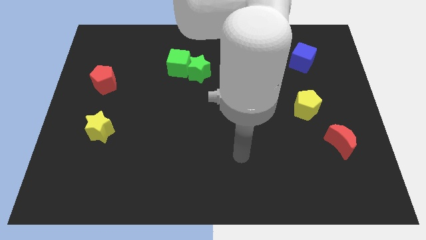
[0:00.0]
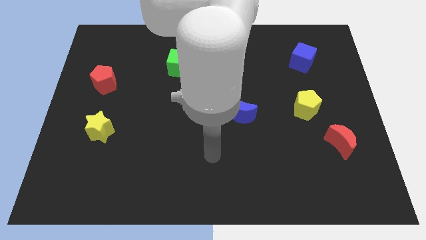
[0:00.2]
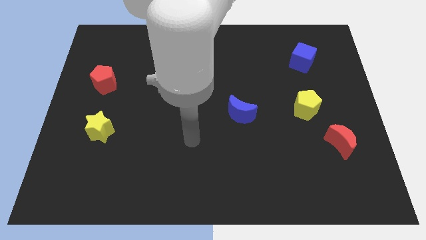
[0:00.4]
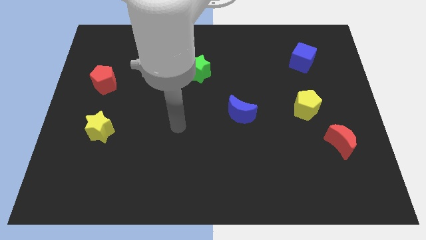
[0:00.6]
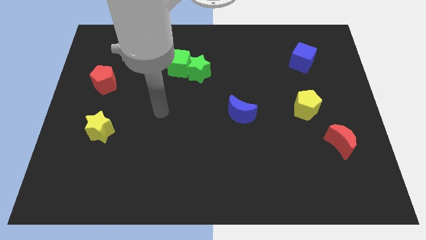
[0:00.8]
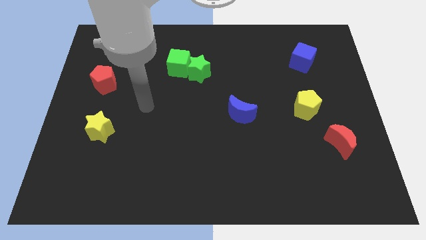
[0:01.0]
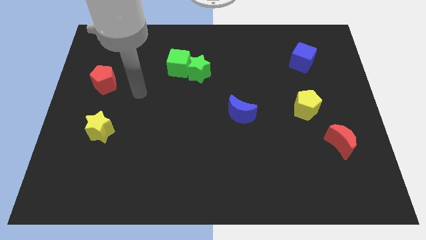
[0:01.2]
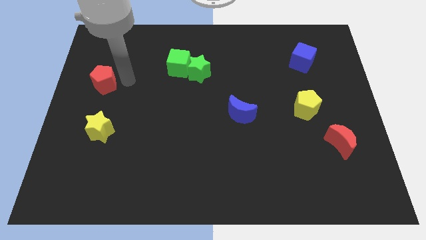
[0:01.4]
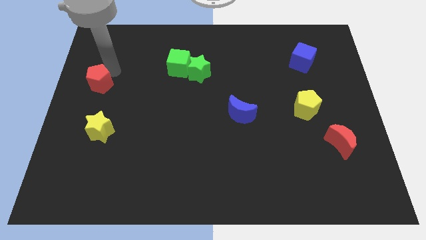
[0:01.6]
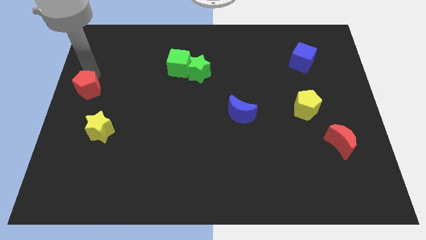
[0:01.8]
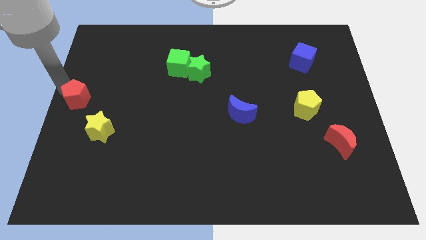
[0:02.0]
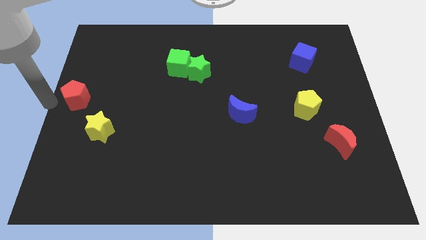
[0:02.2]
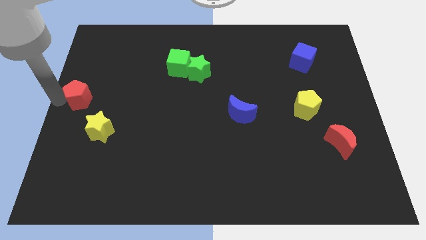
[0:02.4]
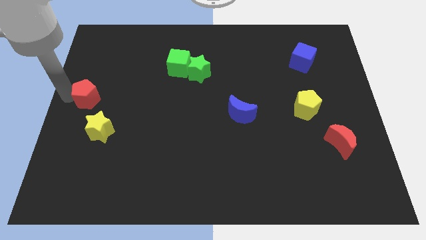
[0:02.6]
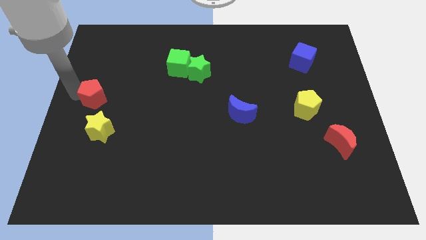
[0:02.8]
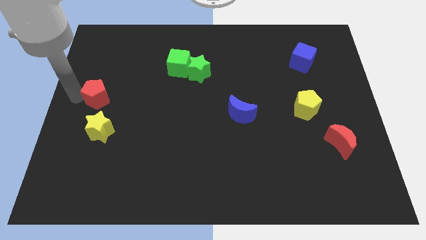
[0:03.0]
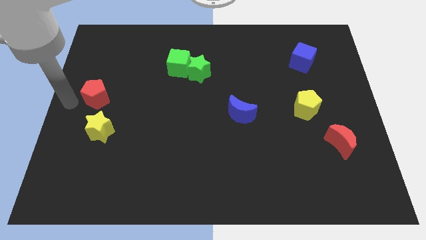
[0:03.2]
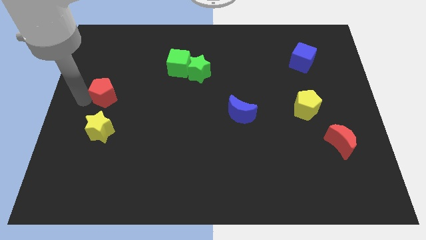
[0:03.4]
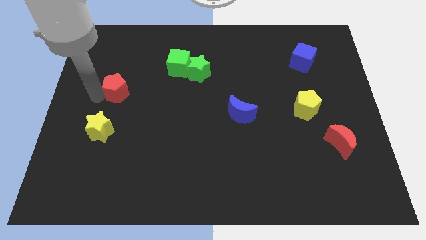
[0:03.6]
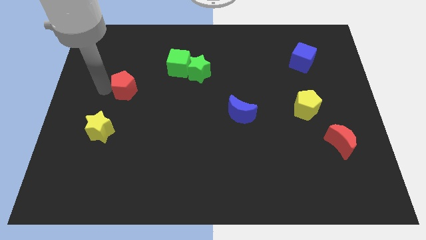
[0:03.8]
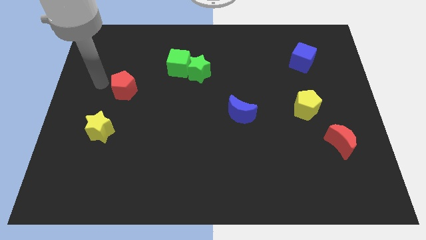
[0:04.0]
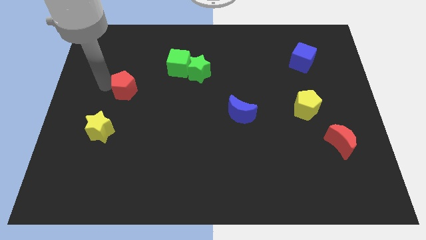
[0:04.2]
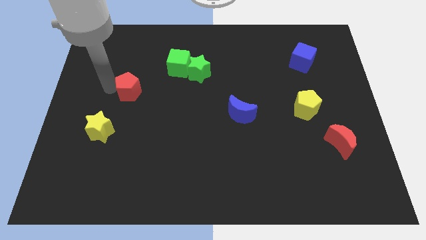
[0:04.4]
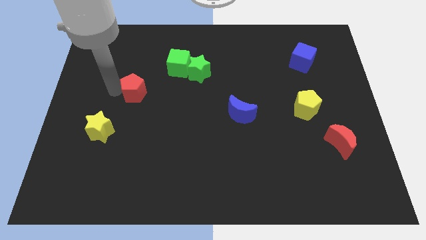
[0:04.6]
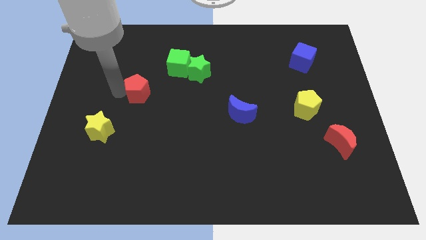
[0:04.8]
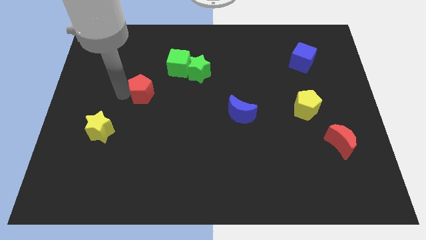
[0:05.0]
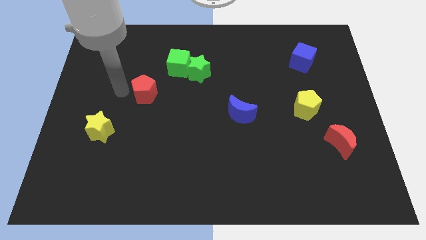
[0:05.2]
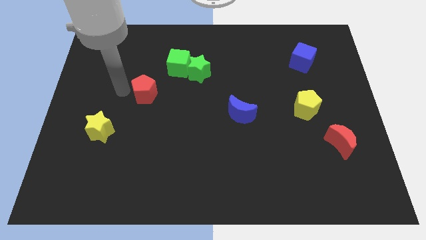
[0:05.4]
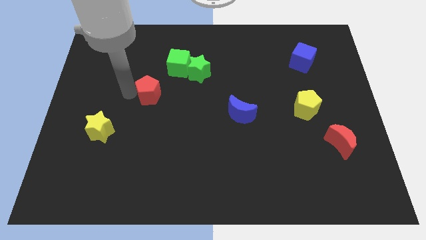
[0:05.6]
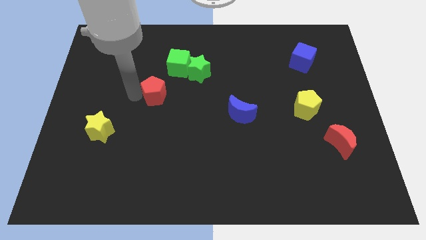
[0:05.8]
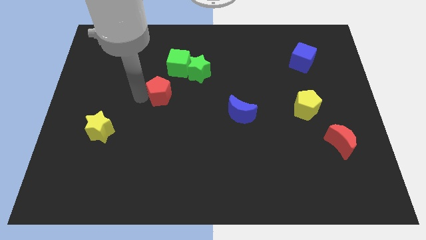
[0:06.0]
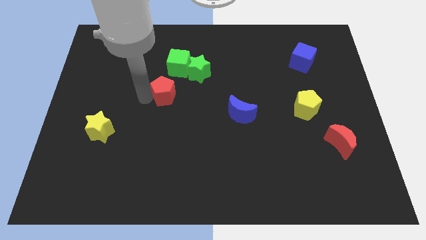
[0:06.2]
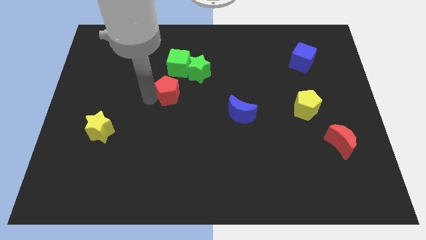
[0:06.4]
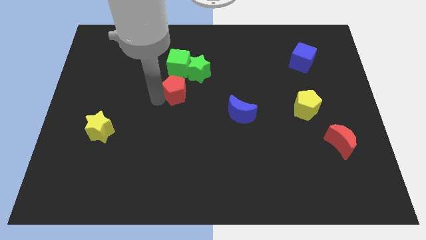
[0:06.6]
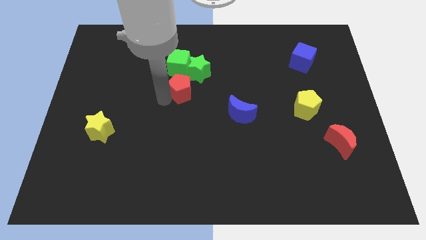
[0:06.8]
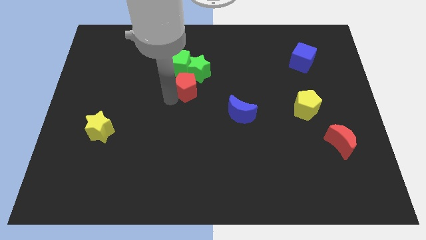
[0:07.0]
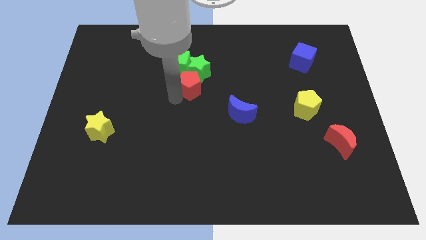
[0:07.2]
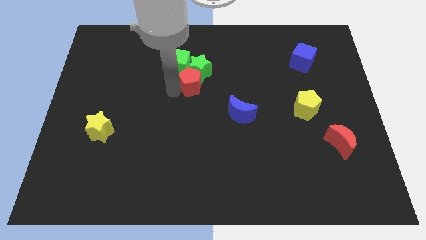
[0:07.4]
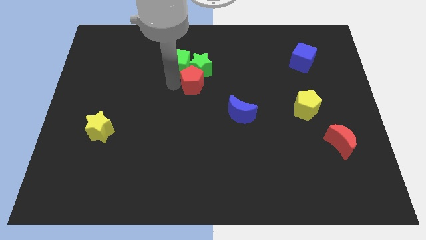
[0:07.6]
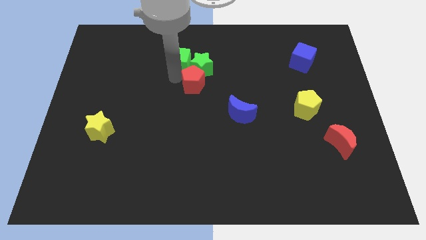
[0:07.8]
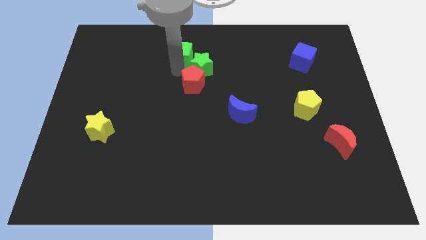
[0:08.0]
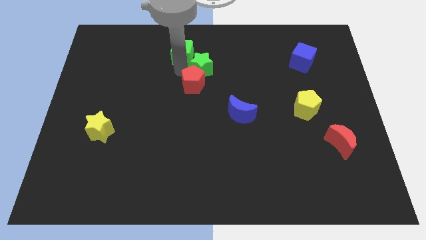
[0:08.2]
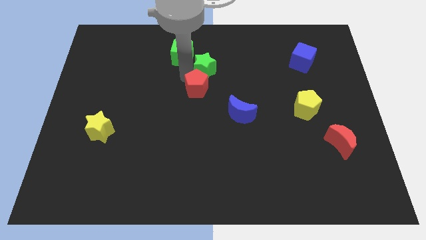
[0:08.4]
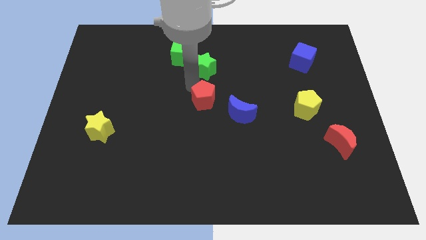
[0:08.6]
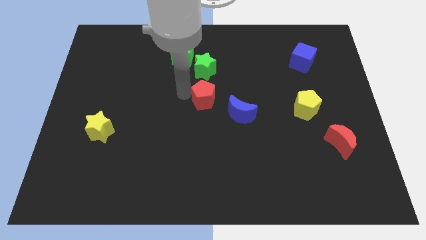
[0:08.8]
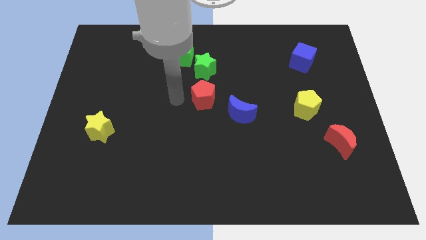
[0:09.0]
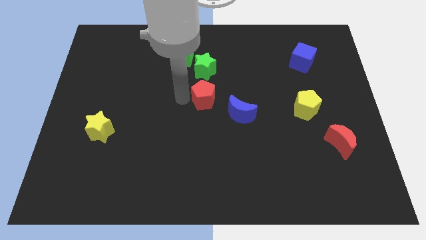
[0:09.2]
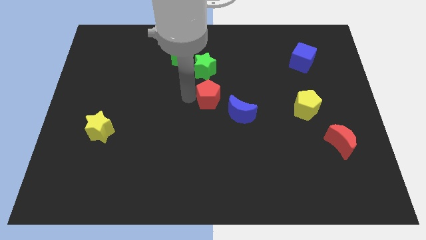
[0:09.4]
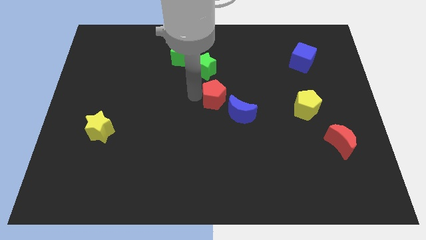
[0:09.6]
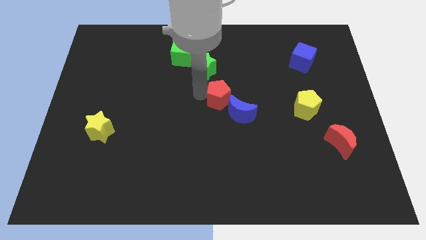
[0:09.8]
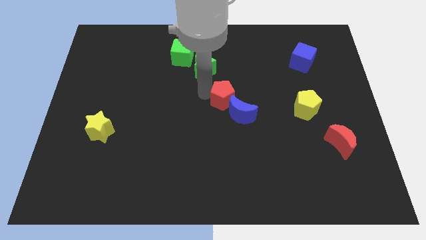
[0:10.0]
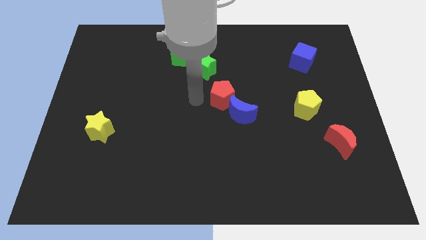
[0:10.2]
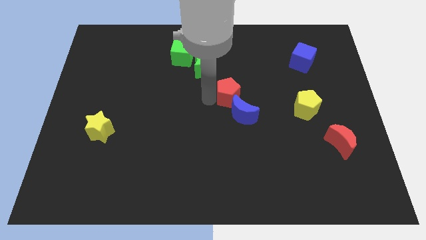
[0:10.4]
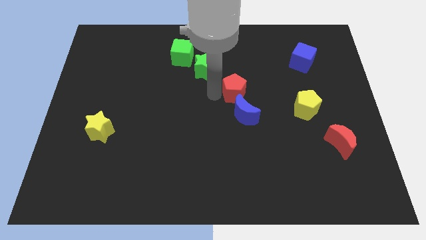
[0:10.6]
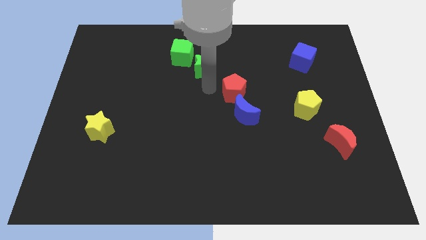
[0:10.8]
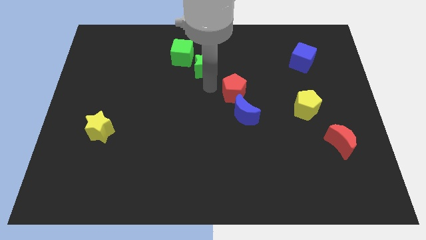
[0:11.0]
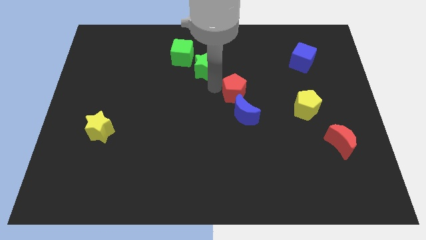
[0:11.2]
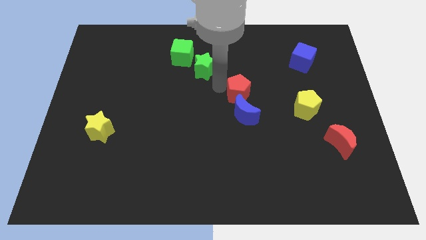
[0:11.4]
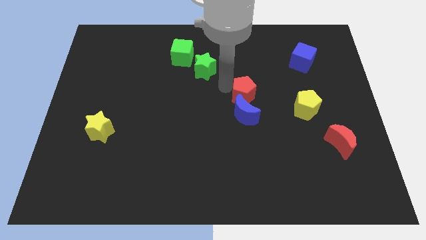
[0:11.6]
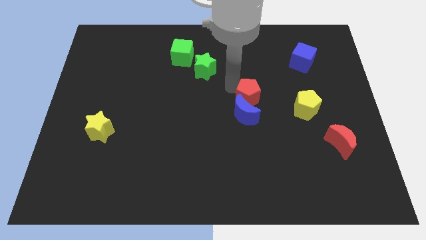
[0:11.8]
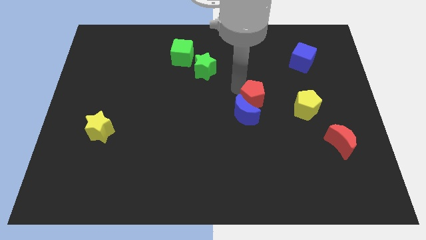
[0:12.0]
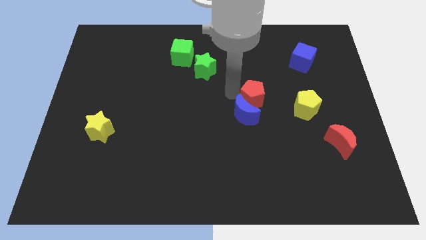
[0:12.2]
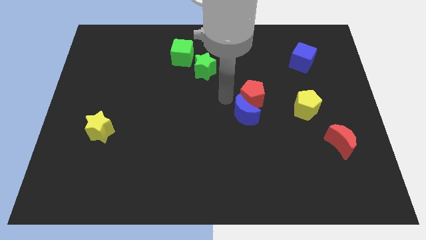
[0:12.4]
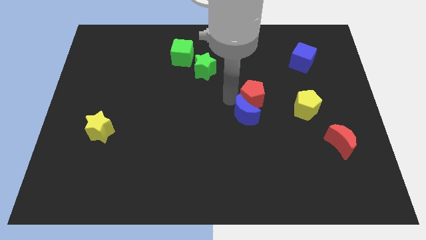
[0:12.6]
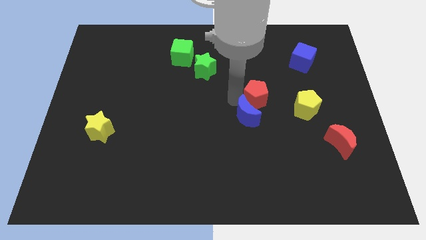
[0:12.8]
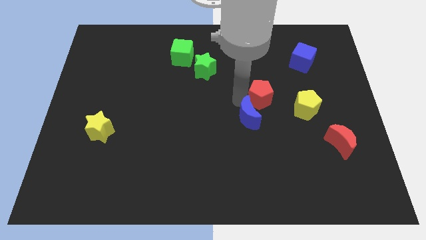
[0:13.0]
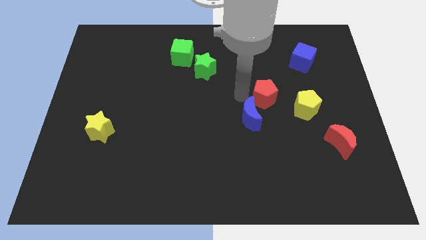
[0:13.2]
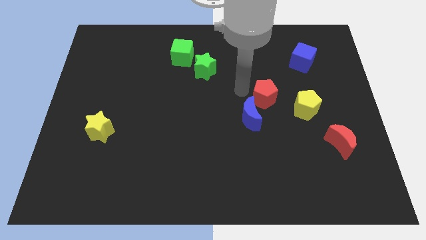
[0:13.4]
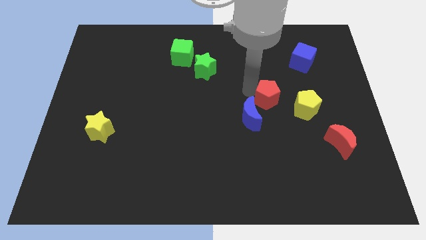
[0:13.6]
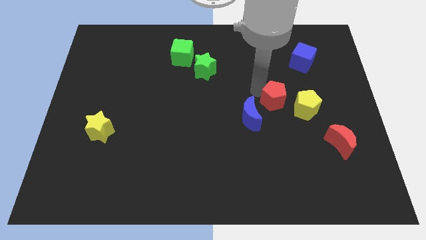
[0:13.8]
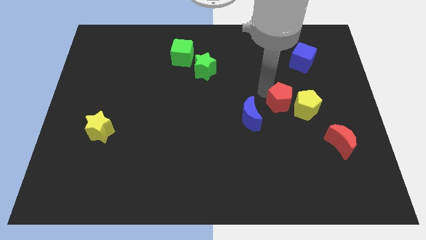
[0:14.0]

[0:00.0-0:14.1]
move the red pentagon next to the yellow pentagon

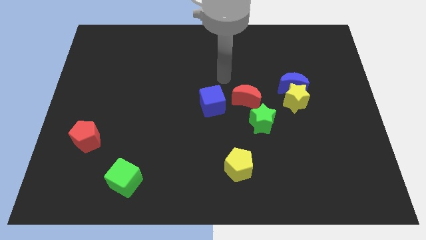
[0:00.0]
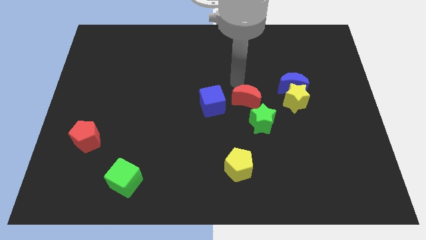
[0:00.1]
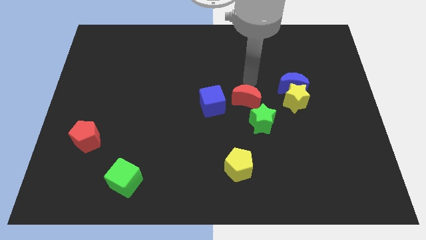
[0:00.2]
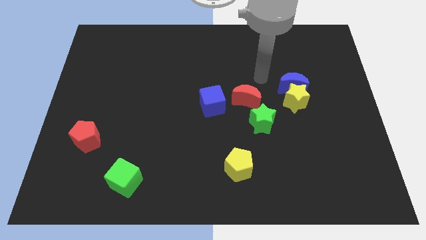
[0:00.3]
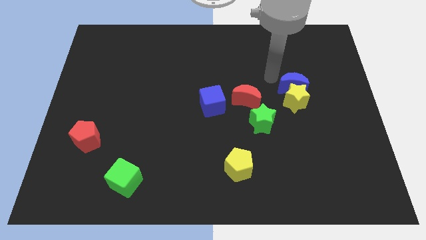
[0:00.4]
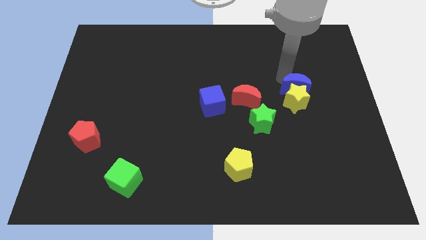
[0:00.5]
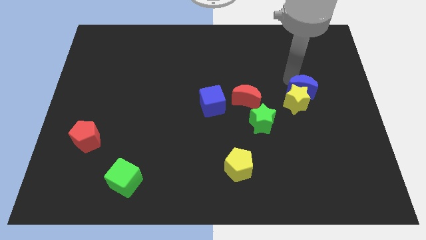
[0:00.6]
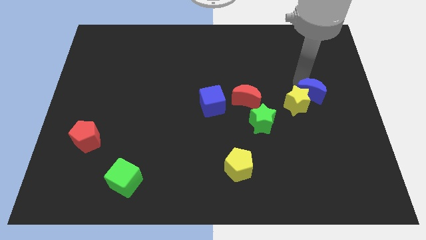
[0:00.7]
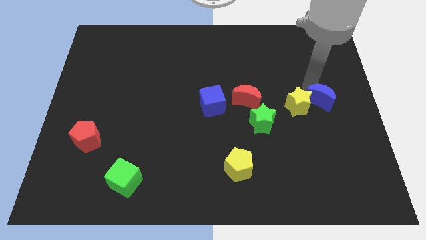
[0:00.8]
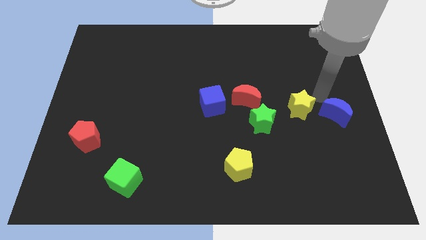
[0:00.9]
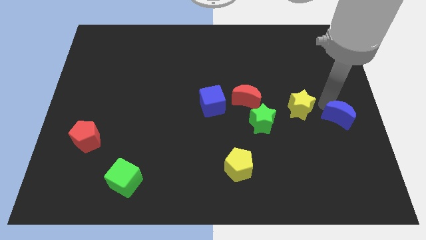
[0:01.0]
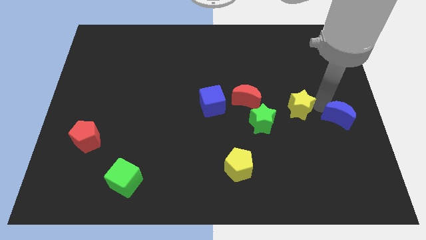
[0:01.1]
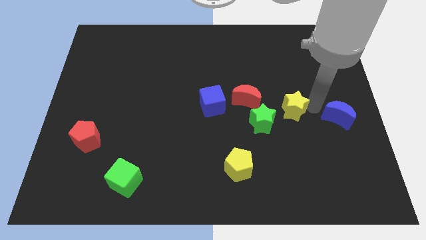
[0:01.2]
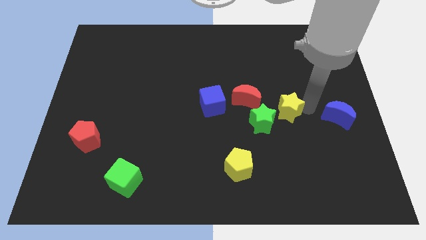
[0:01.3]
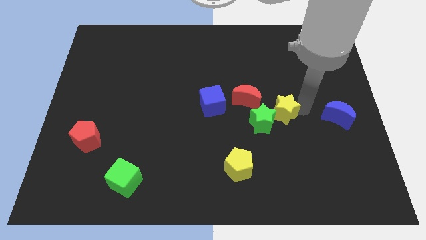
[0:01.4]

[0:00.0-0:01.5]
slide the yellow star towards the green star
